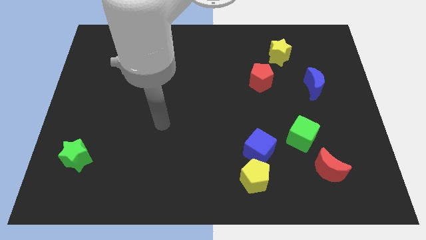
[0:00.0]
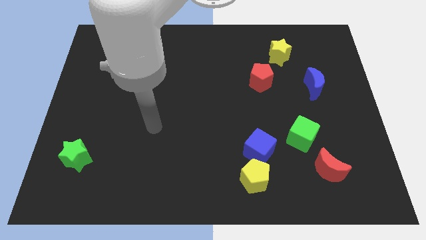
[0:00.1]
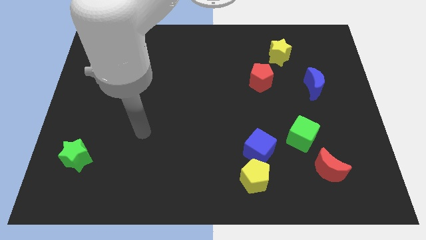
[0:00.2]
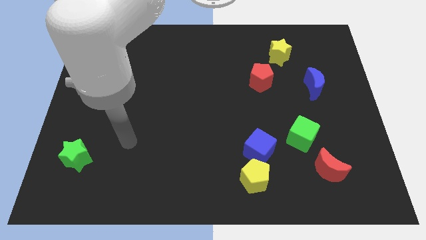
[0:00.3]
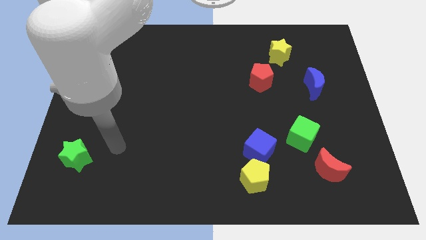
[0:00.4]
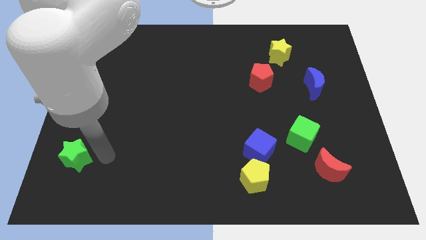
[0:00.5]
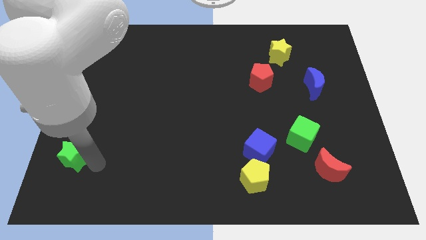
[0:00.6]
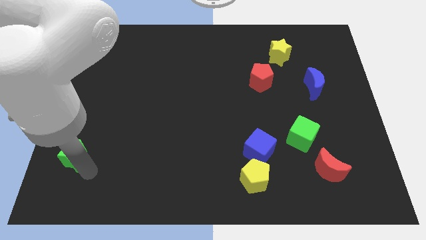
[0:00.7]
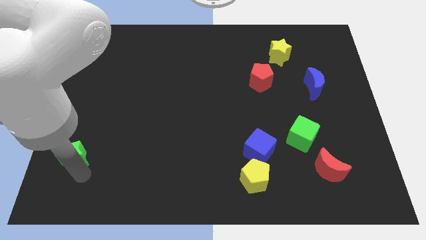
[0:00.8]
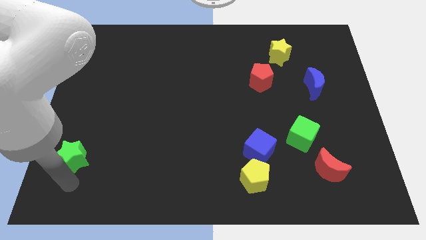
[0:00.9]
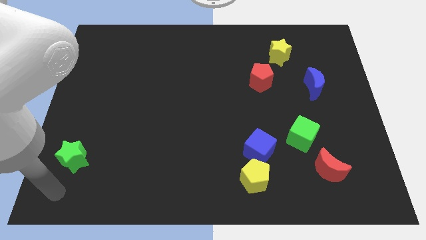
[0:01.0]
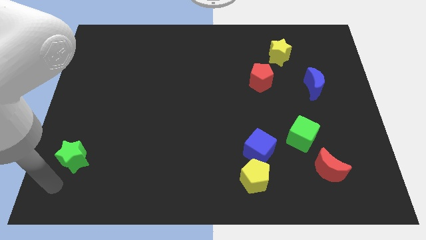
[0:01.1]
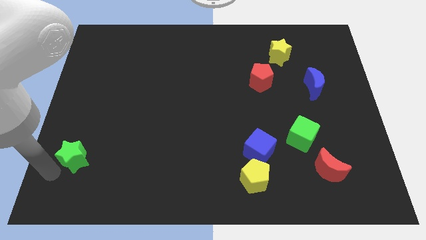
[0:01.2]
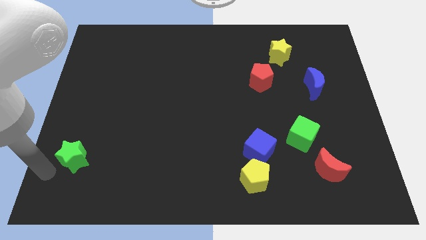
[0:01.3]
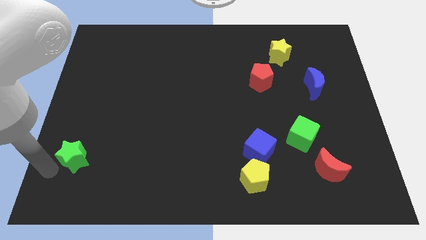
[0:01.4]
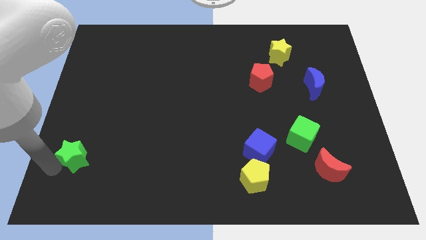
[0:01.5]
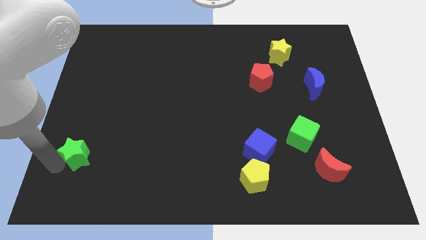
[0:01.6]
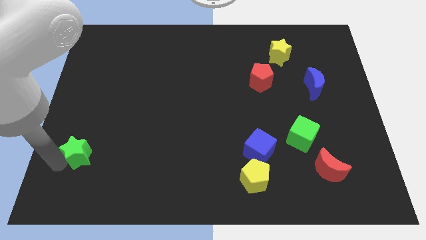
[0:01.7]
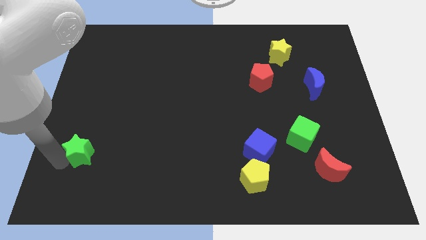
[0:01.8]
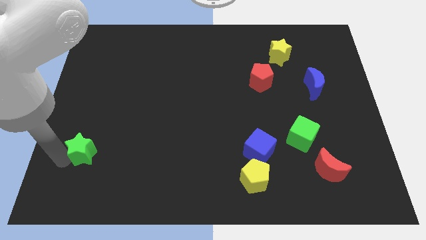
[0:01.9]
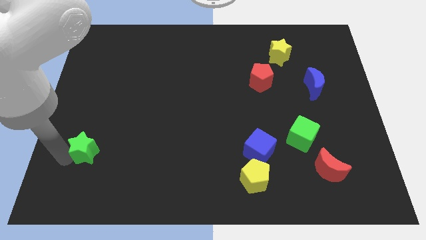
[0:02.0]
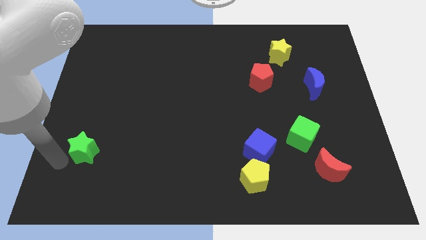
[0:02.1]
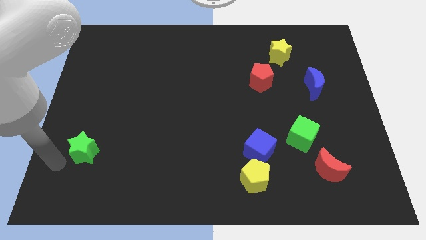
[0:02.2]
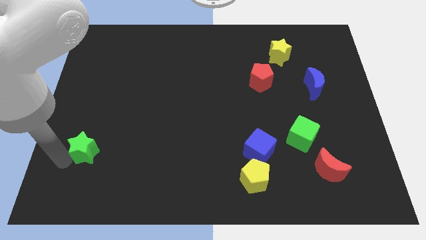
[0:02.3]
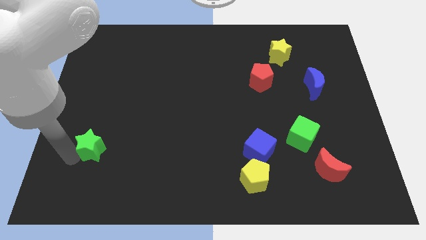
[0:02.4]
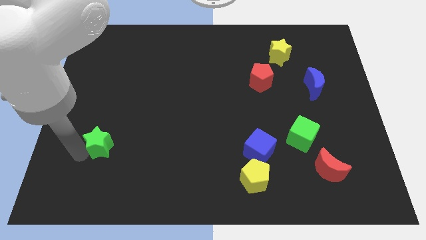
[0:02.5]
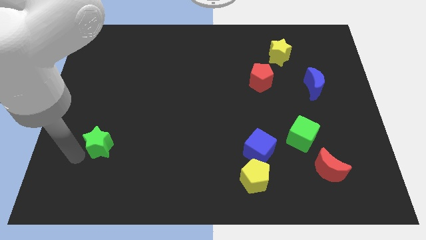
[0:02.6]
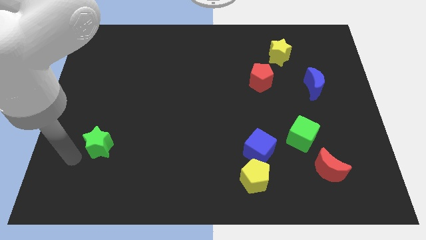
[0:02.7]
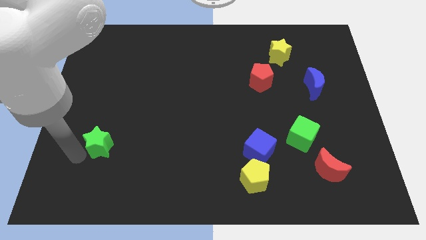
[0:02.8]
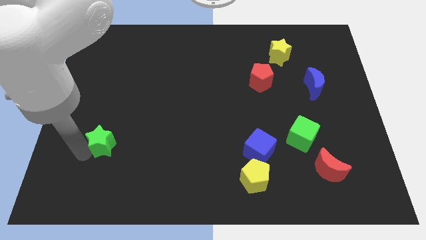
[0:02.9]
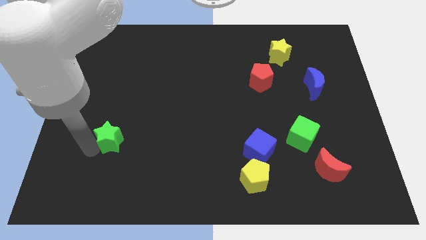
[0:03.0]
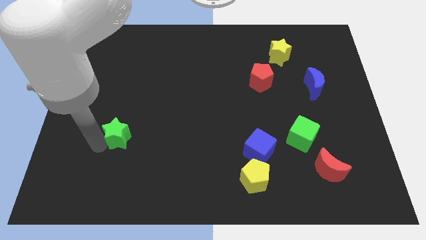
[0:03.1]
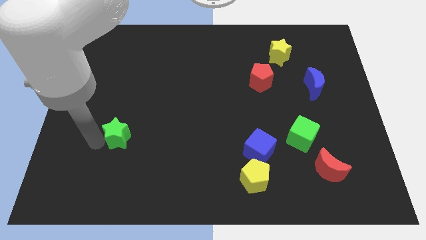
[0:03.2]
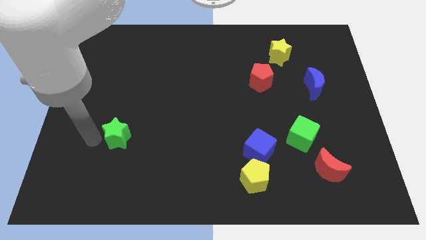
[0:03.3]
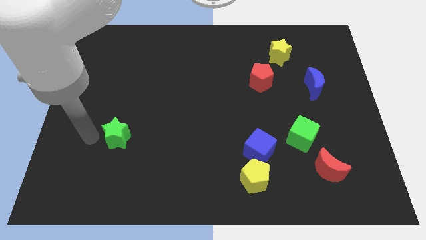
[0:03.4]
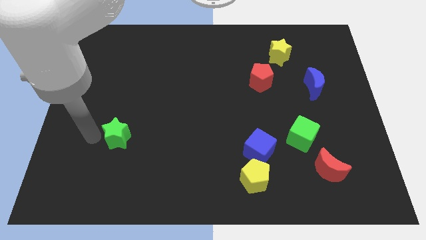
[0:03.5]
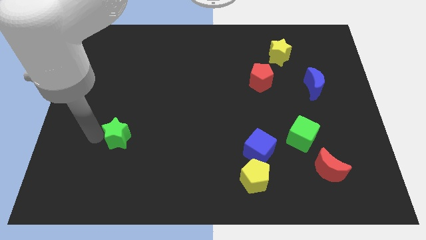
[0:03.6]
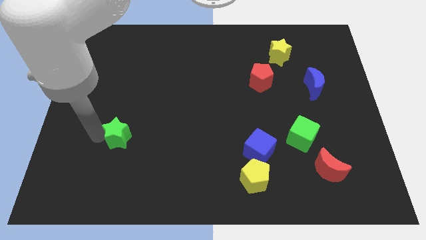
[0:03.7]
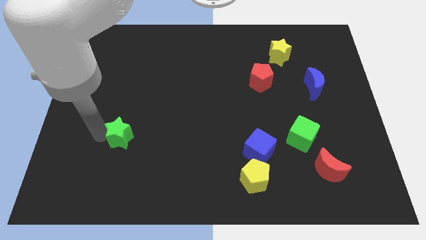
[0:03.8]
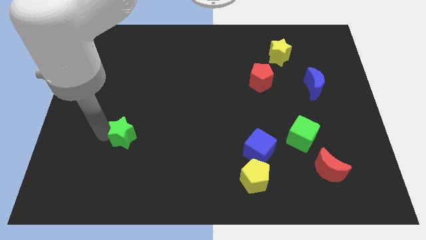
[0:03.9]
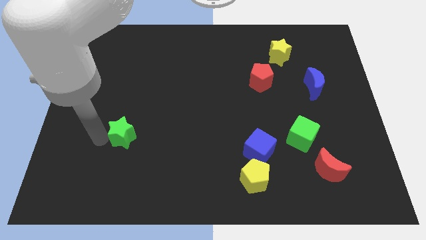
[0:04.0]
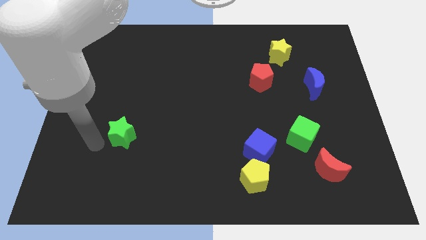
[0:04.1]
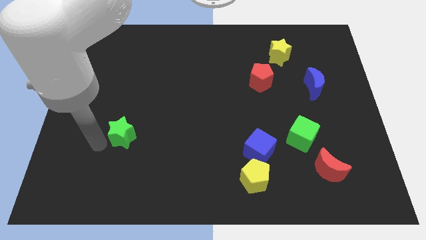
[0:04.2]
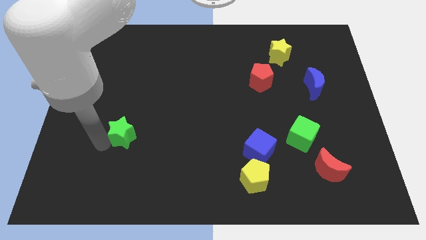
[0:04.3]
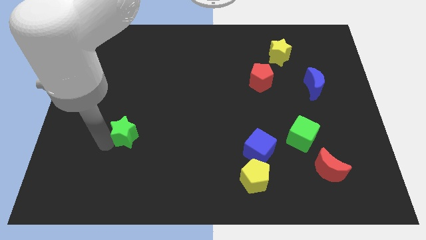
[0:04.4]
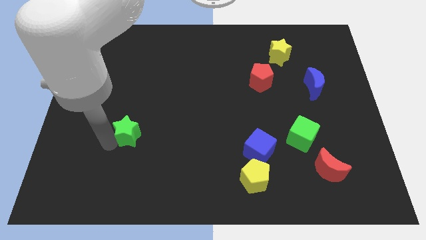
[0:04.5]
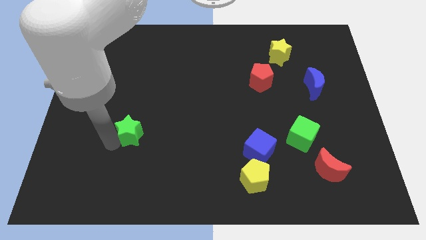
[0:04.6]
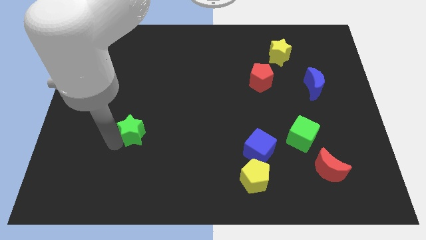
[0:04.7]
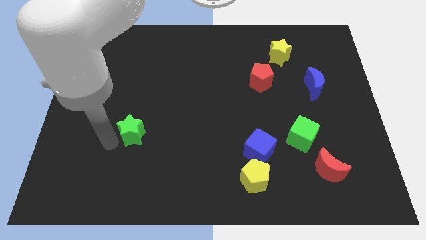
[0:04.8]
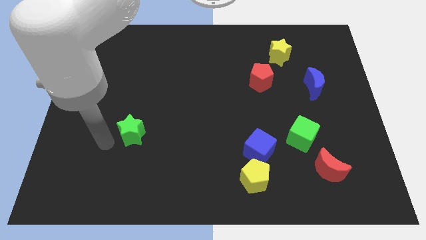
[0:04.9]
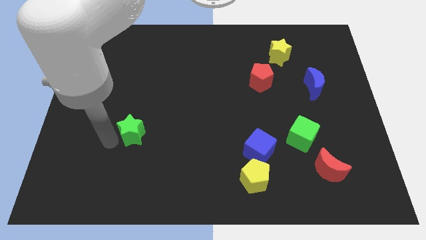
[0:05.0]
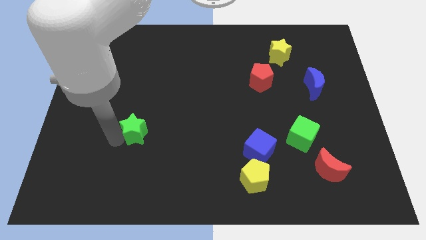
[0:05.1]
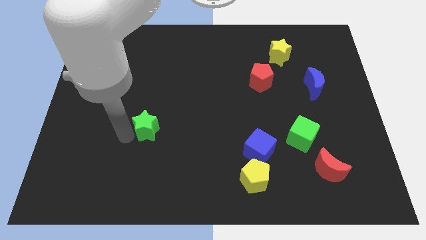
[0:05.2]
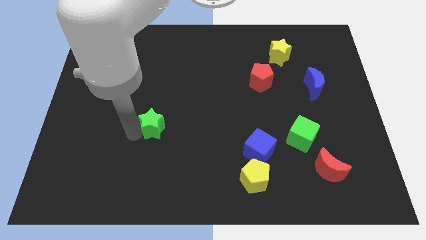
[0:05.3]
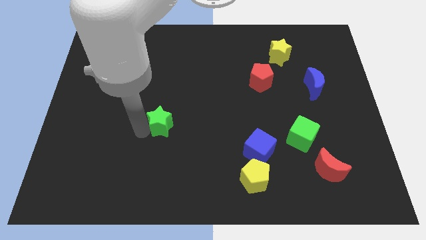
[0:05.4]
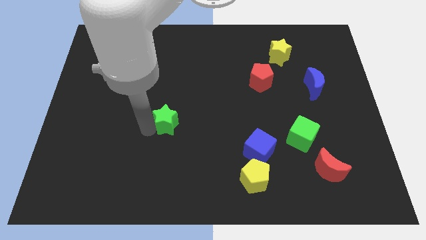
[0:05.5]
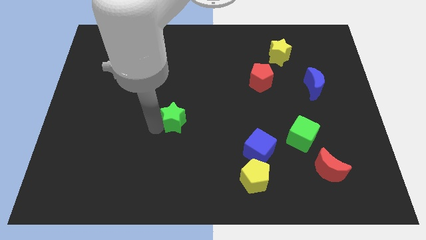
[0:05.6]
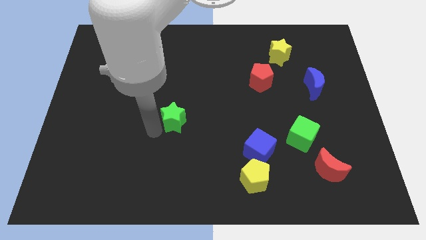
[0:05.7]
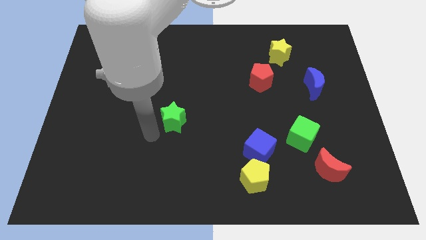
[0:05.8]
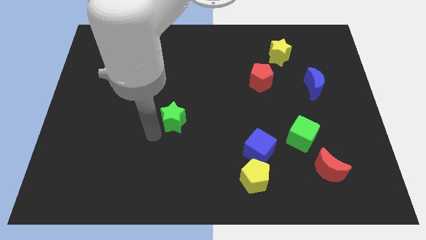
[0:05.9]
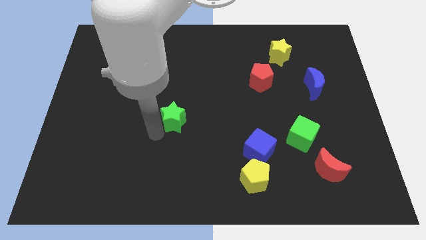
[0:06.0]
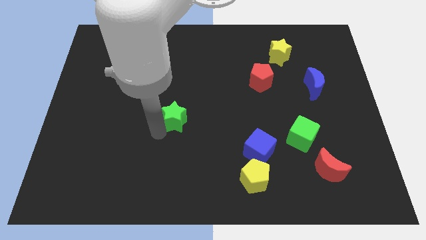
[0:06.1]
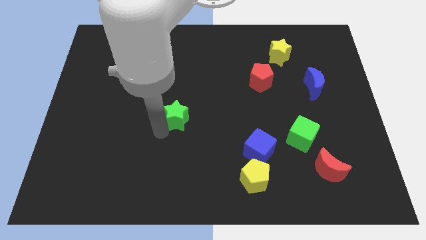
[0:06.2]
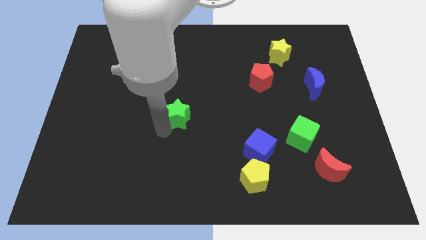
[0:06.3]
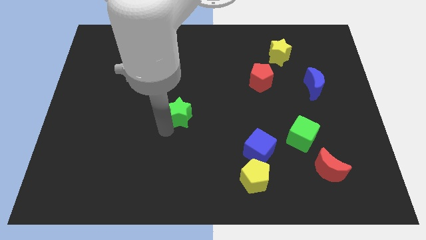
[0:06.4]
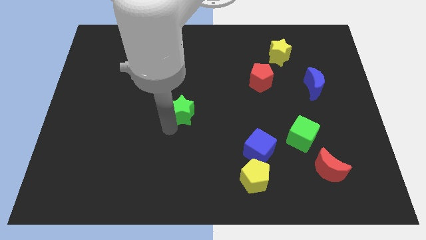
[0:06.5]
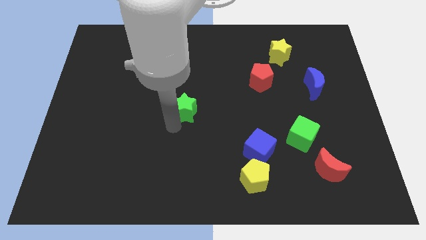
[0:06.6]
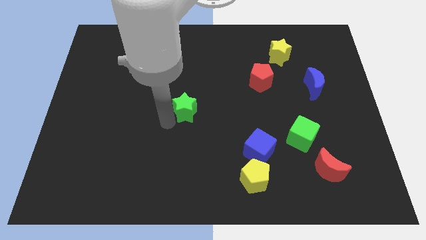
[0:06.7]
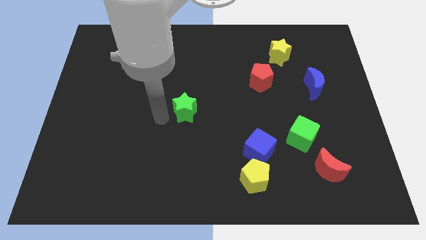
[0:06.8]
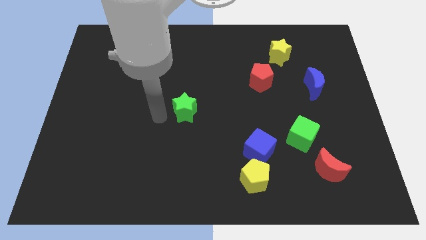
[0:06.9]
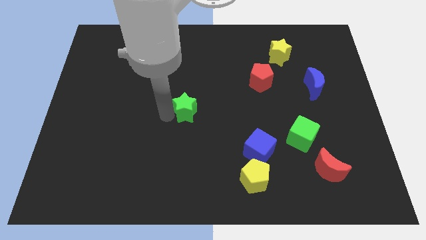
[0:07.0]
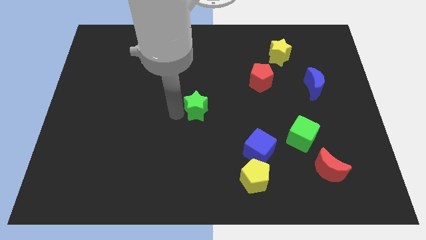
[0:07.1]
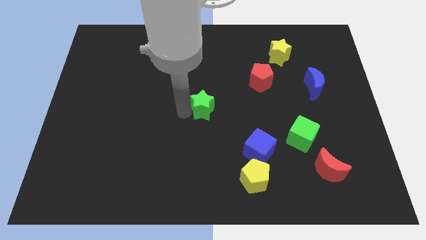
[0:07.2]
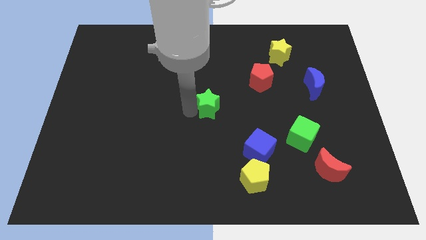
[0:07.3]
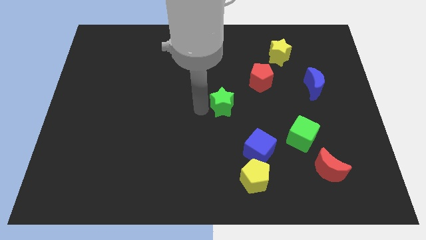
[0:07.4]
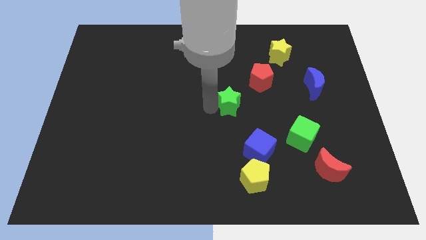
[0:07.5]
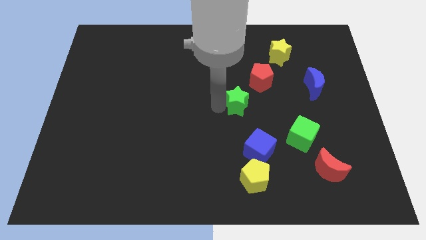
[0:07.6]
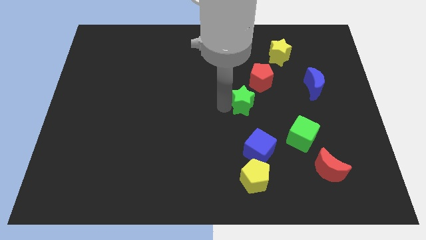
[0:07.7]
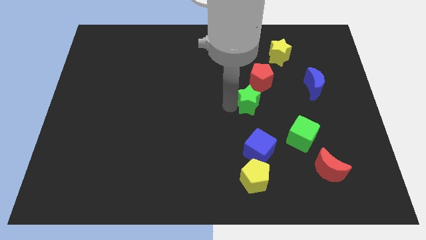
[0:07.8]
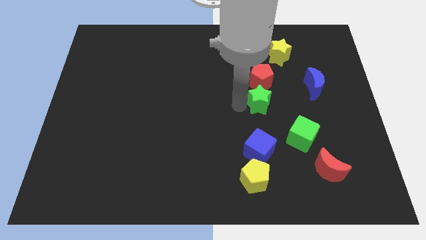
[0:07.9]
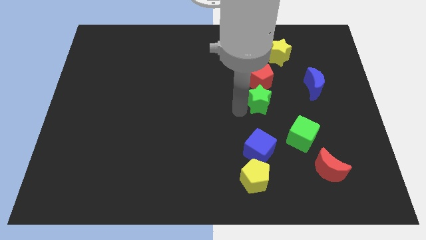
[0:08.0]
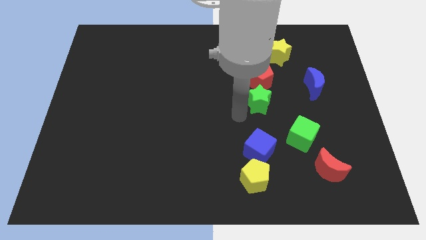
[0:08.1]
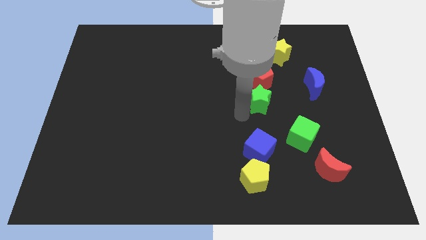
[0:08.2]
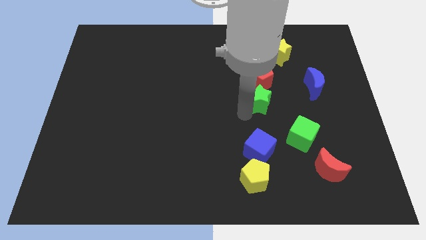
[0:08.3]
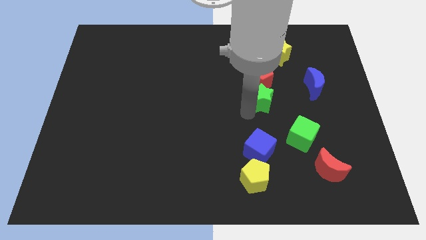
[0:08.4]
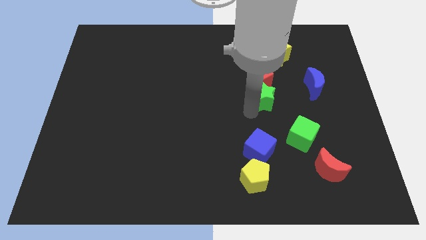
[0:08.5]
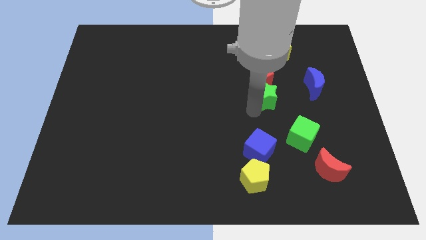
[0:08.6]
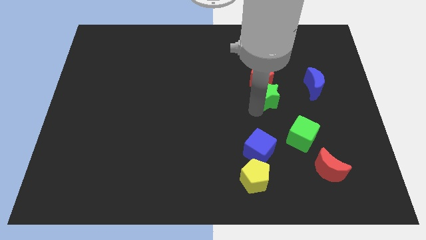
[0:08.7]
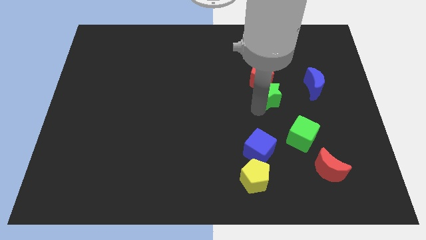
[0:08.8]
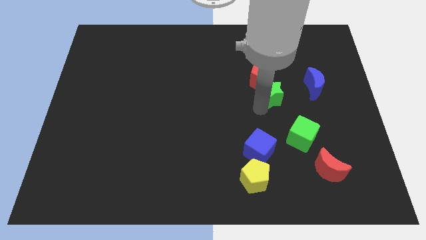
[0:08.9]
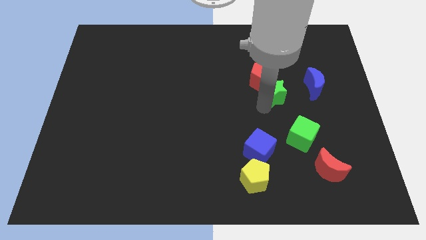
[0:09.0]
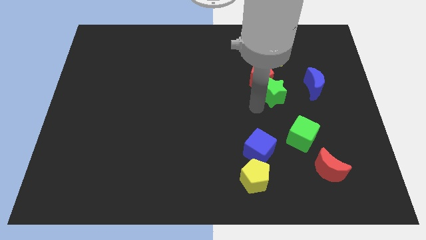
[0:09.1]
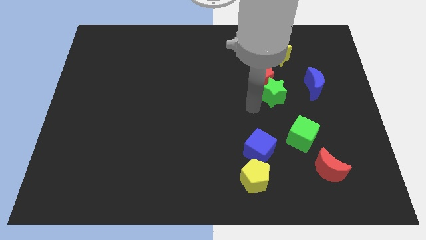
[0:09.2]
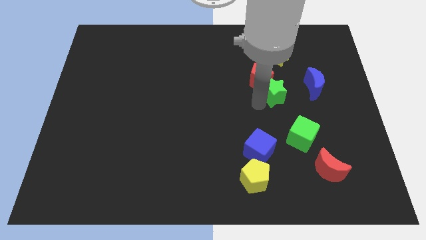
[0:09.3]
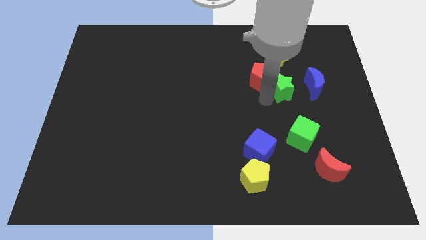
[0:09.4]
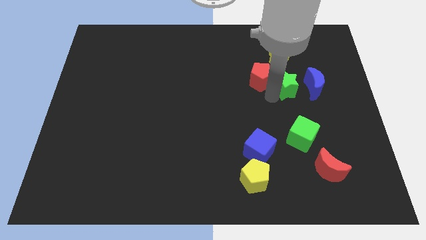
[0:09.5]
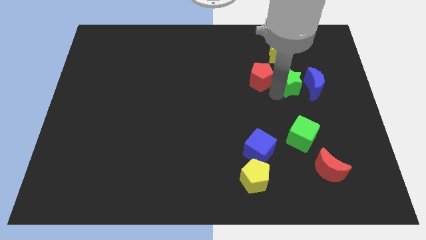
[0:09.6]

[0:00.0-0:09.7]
slide the green star close to the blue moon
